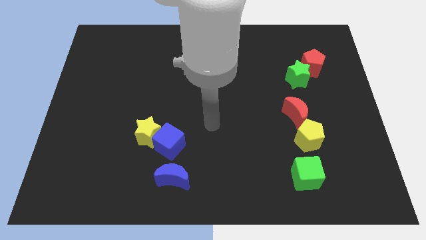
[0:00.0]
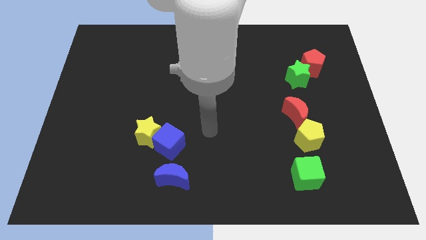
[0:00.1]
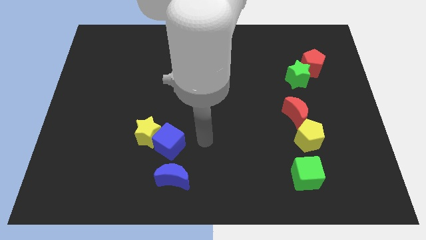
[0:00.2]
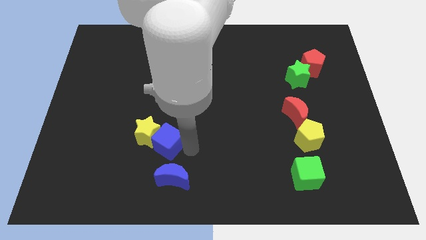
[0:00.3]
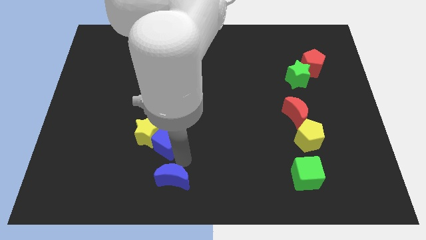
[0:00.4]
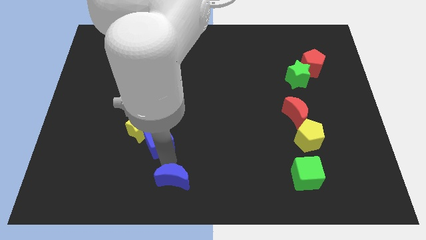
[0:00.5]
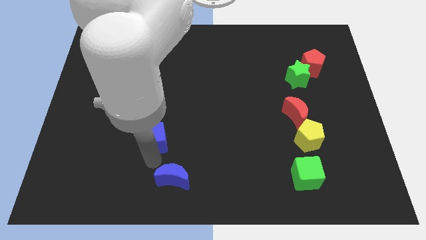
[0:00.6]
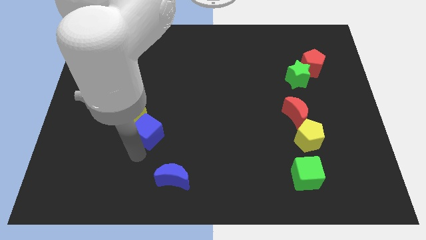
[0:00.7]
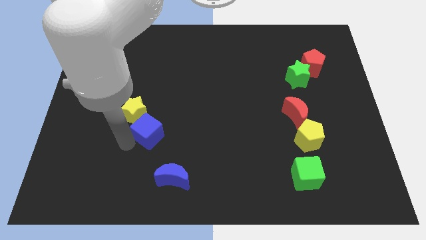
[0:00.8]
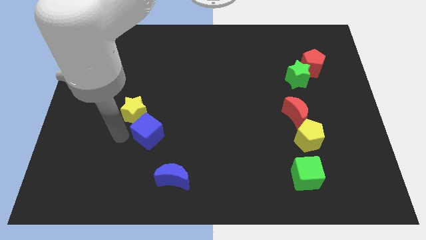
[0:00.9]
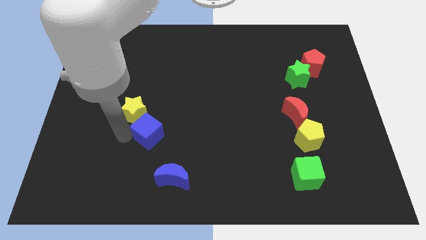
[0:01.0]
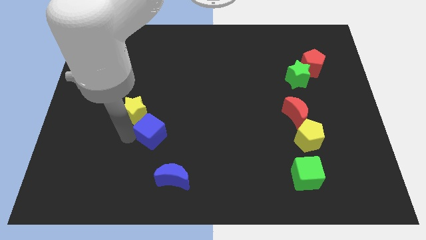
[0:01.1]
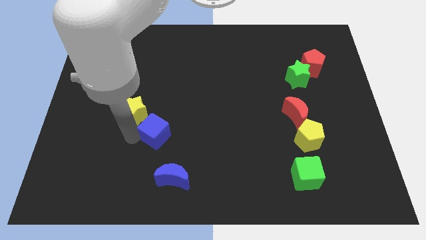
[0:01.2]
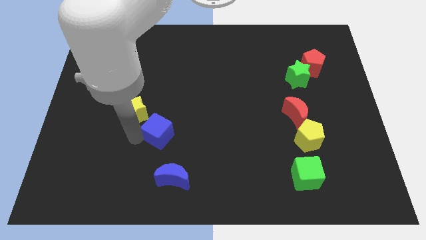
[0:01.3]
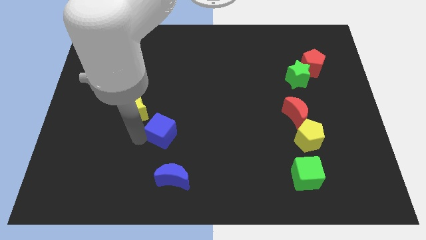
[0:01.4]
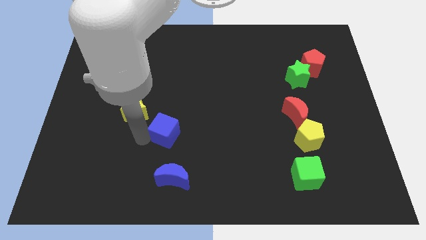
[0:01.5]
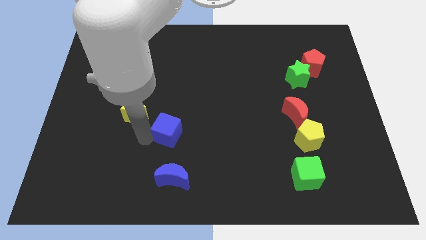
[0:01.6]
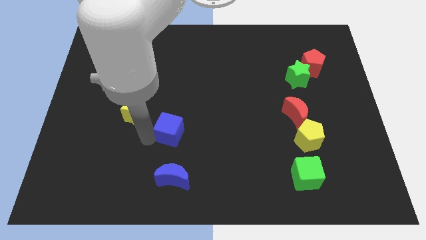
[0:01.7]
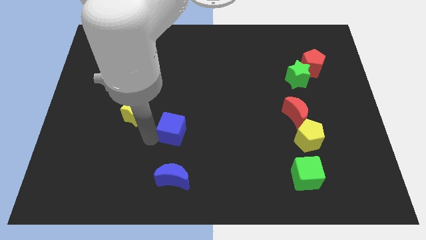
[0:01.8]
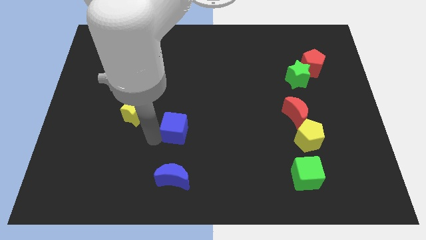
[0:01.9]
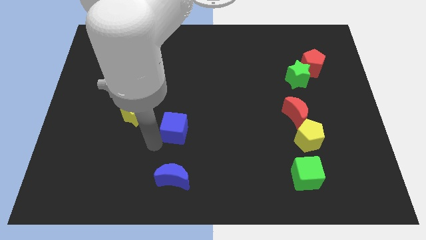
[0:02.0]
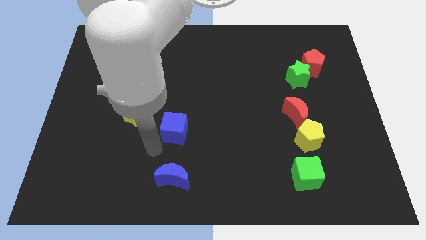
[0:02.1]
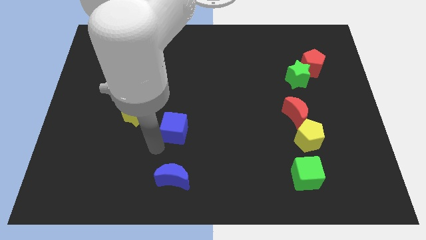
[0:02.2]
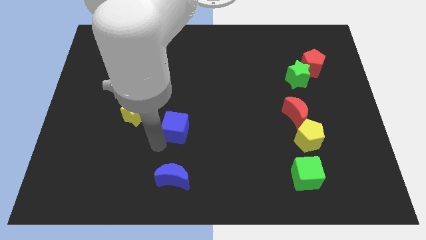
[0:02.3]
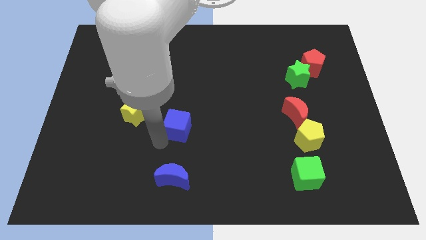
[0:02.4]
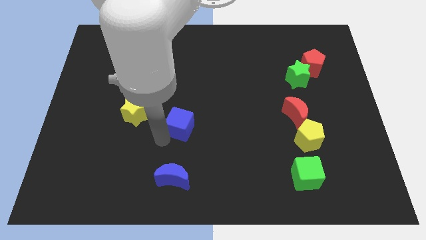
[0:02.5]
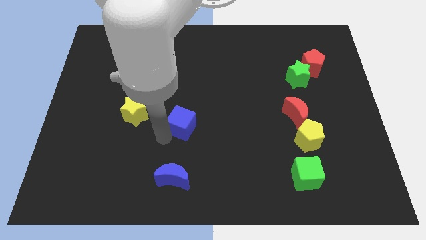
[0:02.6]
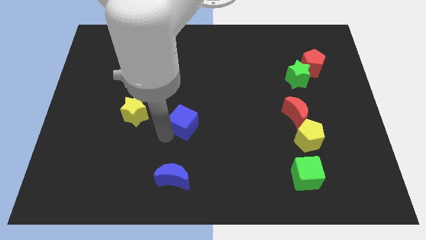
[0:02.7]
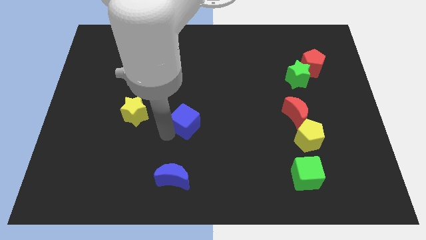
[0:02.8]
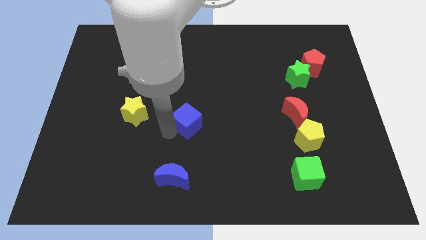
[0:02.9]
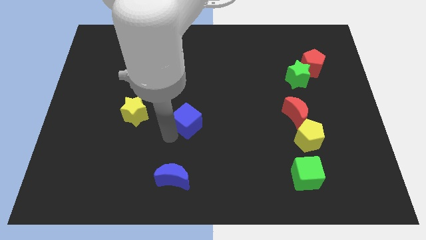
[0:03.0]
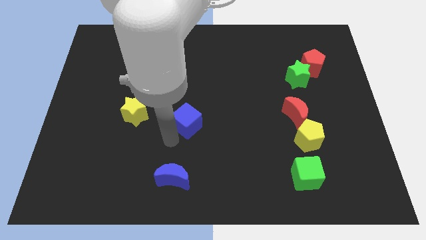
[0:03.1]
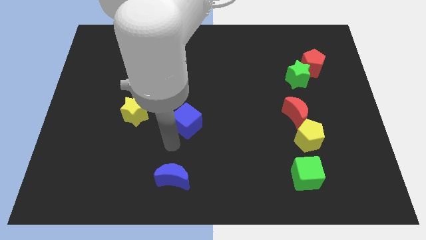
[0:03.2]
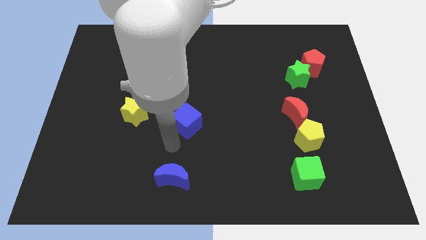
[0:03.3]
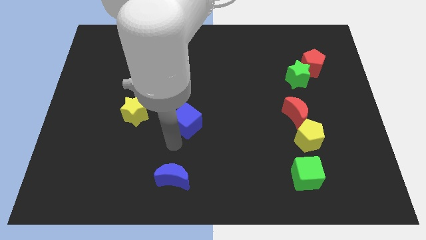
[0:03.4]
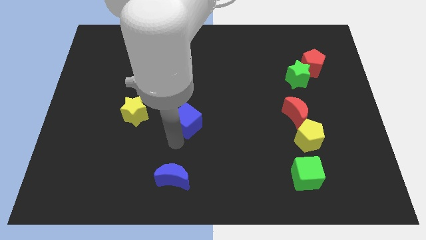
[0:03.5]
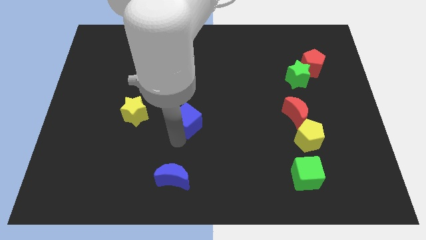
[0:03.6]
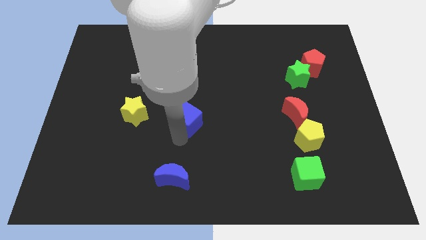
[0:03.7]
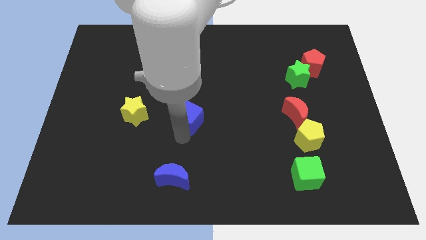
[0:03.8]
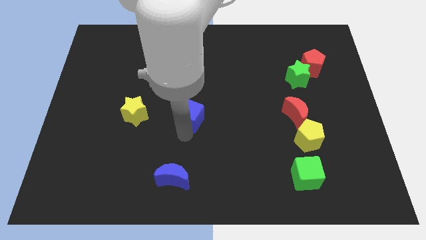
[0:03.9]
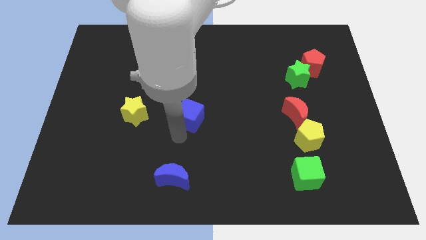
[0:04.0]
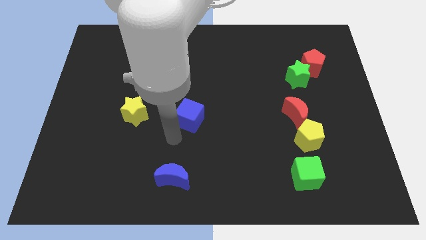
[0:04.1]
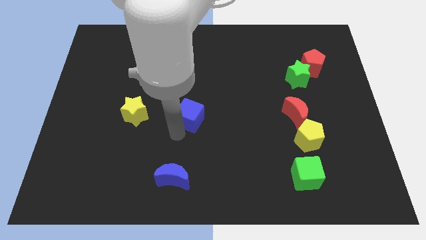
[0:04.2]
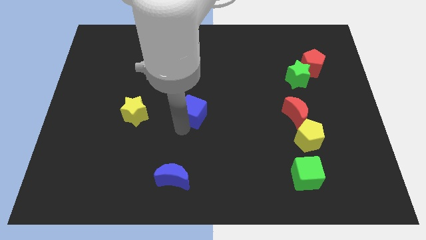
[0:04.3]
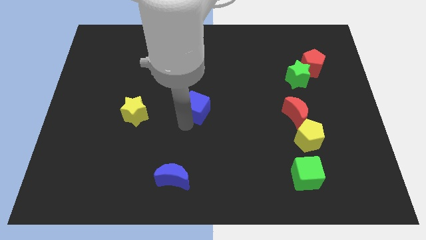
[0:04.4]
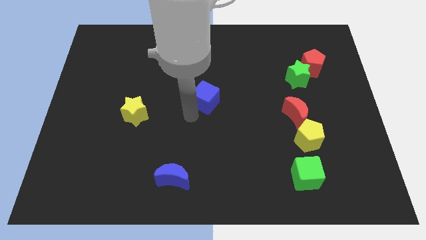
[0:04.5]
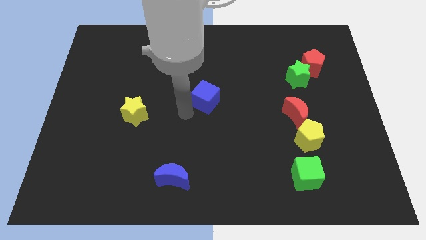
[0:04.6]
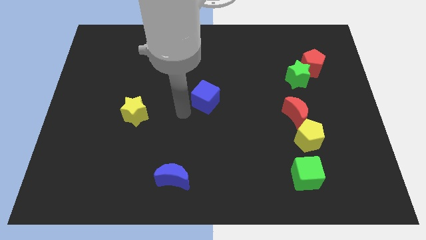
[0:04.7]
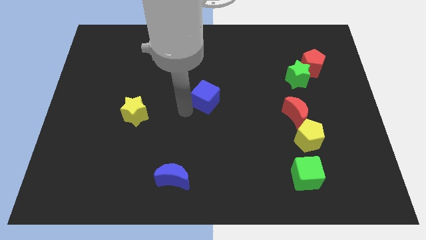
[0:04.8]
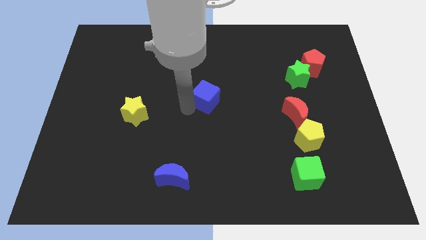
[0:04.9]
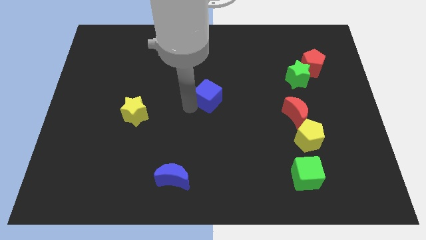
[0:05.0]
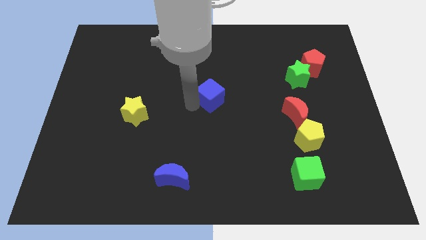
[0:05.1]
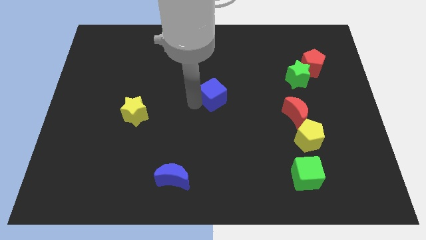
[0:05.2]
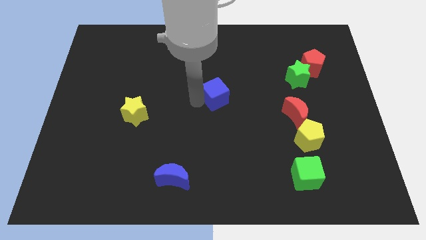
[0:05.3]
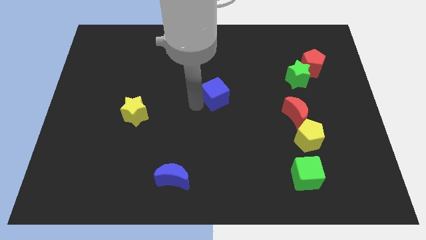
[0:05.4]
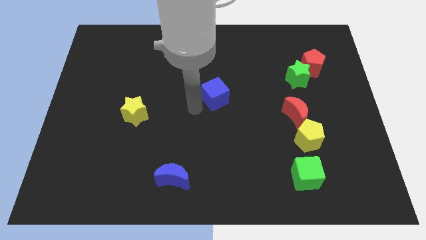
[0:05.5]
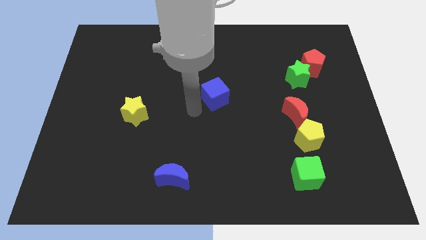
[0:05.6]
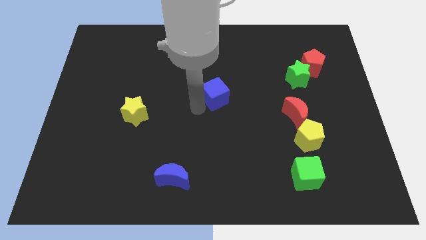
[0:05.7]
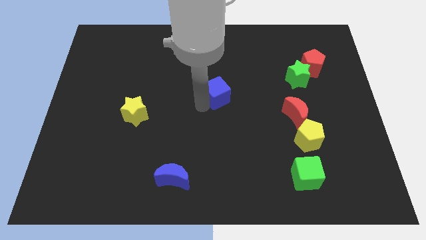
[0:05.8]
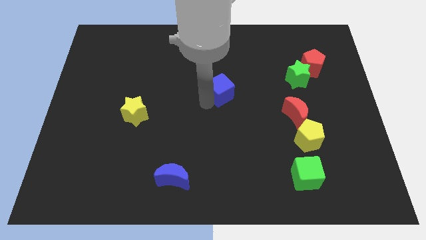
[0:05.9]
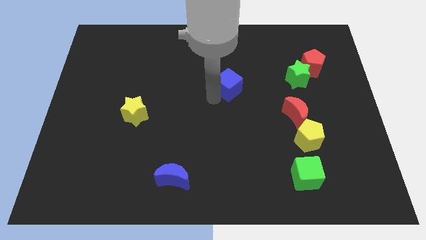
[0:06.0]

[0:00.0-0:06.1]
slide the blue cube upwards and right

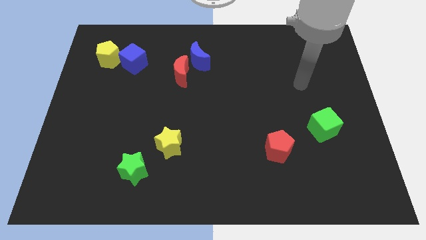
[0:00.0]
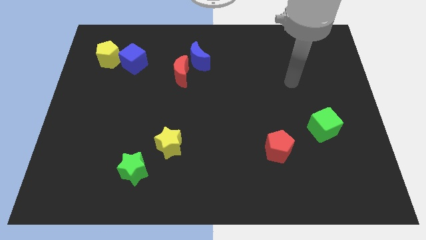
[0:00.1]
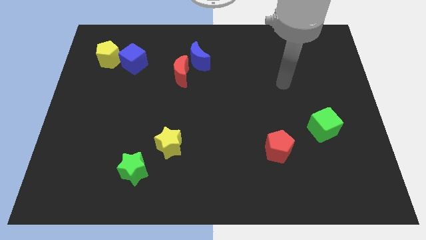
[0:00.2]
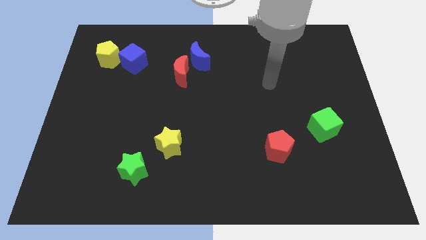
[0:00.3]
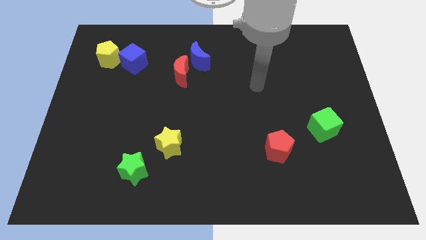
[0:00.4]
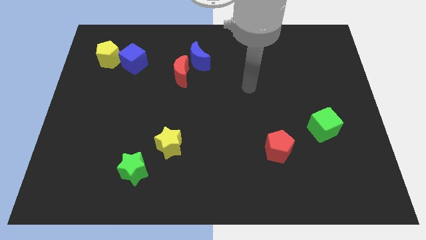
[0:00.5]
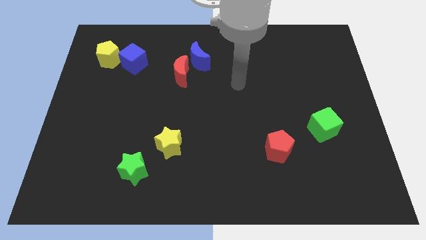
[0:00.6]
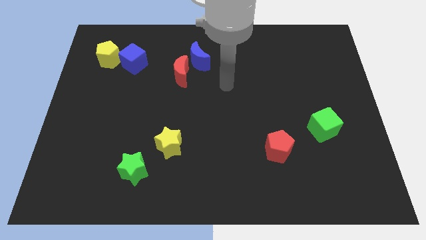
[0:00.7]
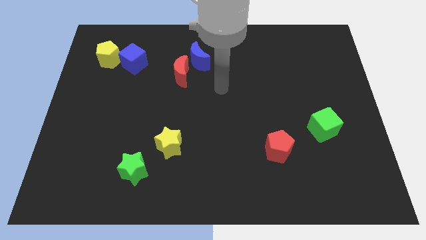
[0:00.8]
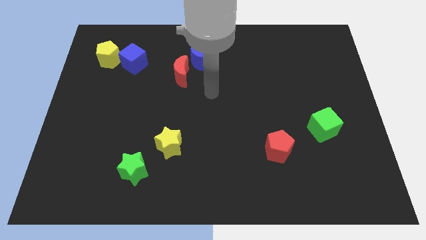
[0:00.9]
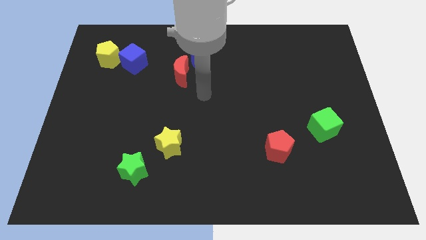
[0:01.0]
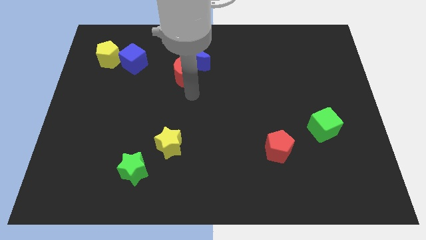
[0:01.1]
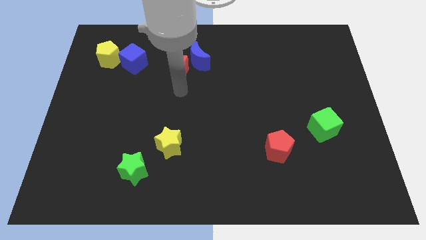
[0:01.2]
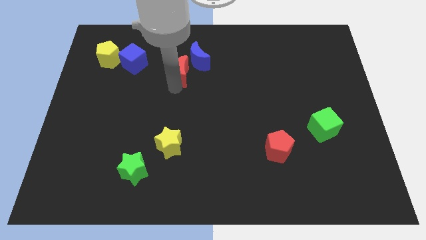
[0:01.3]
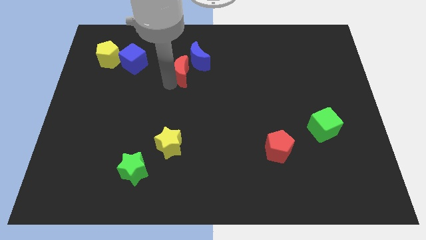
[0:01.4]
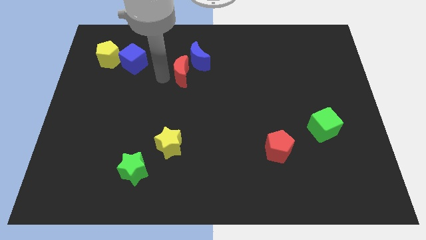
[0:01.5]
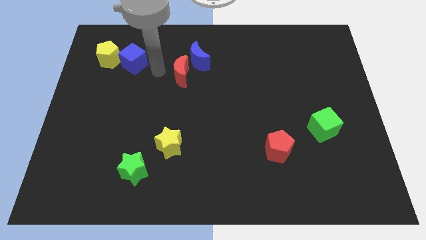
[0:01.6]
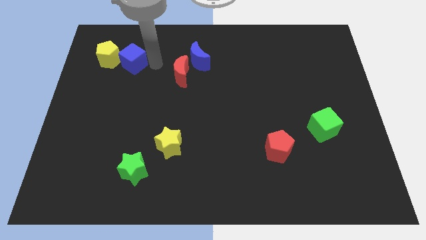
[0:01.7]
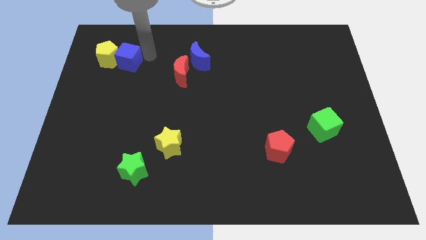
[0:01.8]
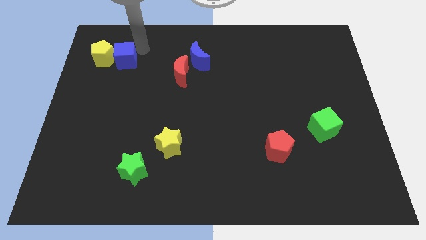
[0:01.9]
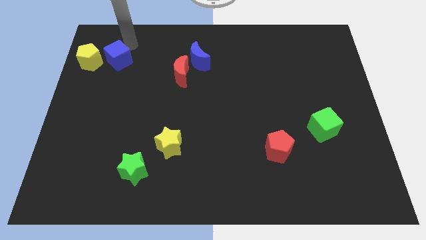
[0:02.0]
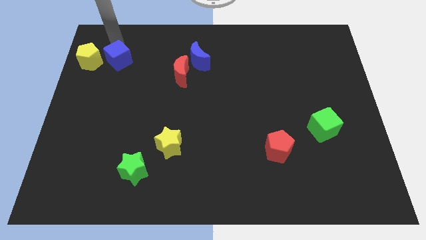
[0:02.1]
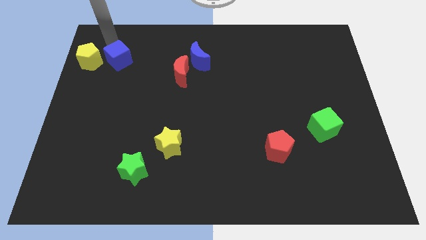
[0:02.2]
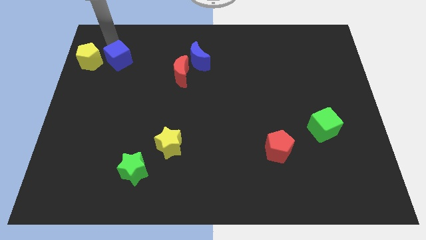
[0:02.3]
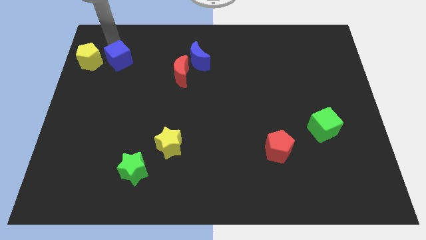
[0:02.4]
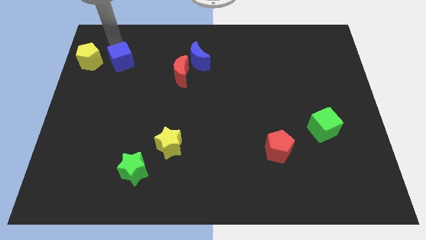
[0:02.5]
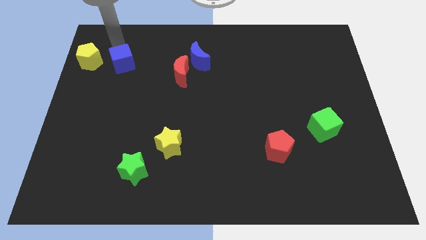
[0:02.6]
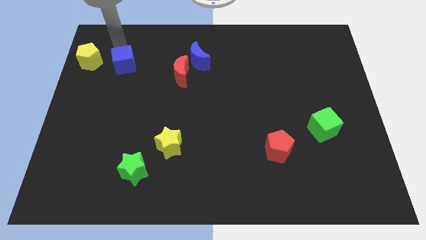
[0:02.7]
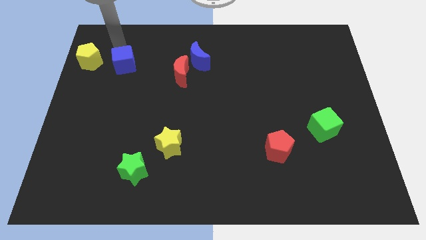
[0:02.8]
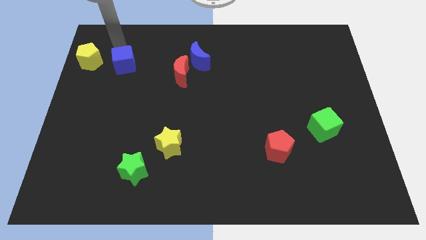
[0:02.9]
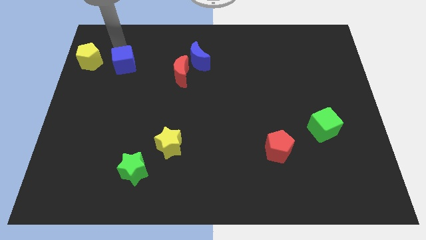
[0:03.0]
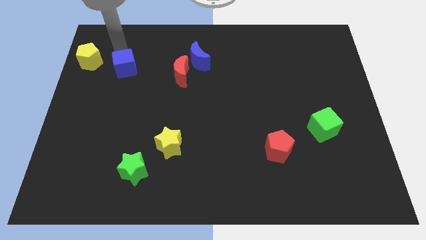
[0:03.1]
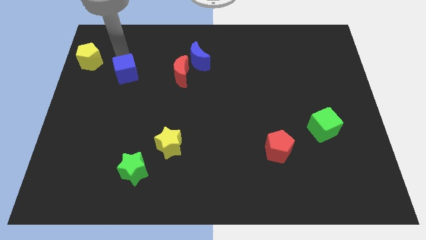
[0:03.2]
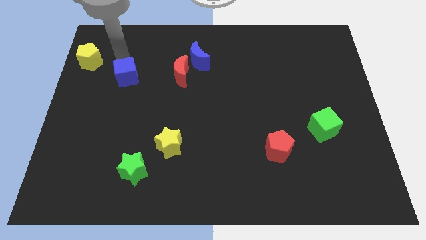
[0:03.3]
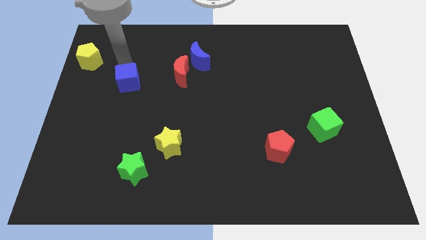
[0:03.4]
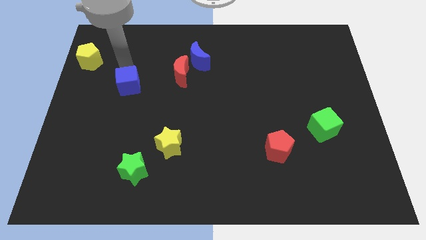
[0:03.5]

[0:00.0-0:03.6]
push the blue cube down a bit
